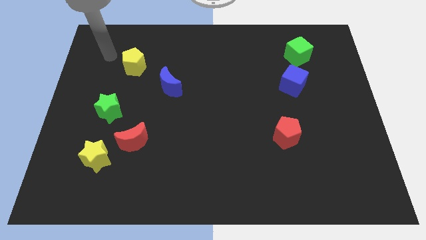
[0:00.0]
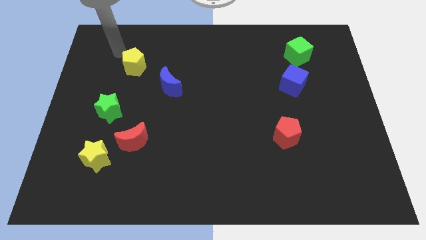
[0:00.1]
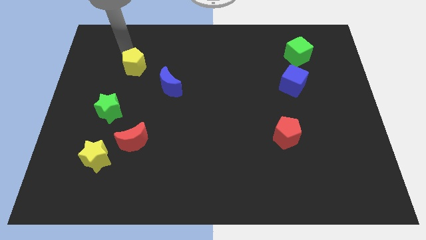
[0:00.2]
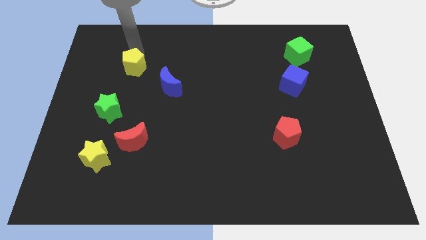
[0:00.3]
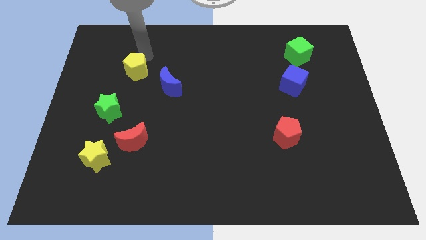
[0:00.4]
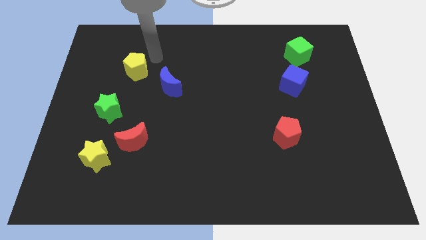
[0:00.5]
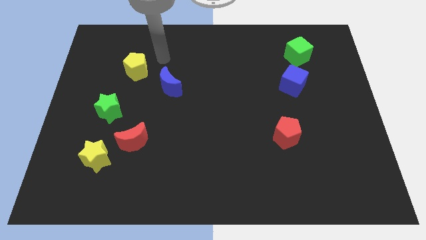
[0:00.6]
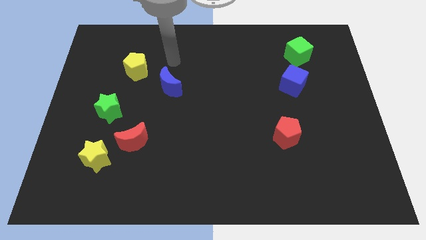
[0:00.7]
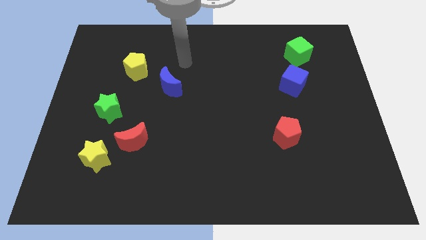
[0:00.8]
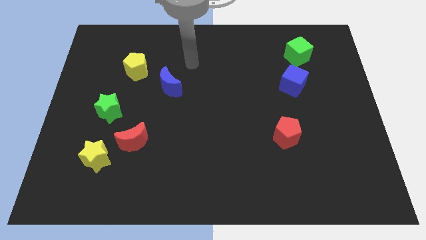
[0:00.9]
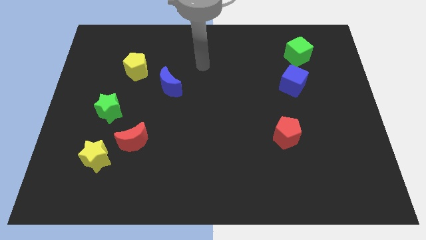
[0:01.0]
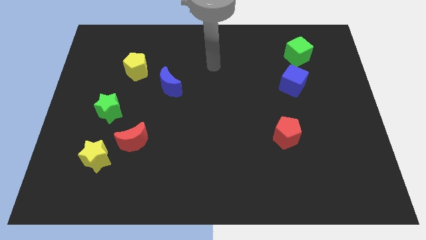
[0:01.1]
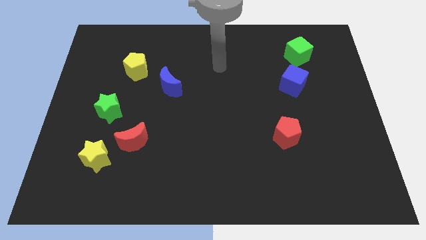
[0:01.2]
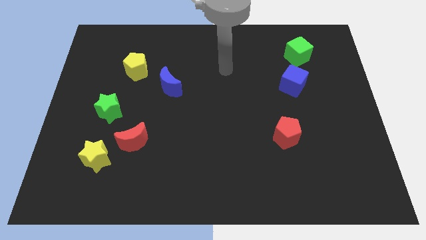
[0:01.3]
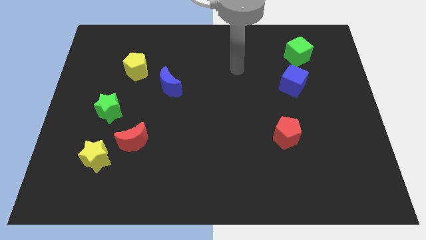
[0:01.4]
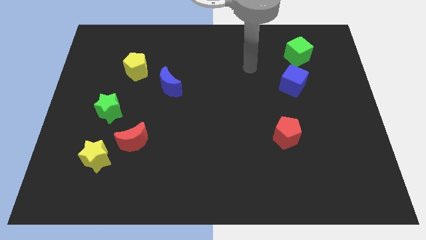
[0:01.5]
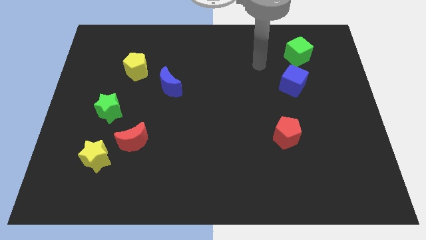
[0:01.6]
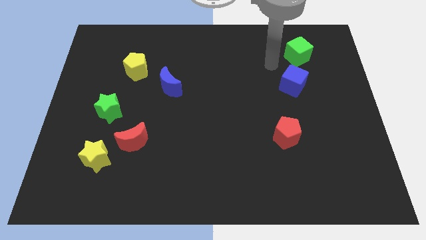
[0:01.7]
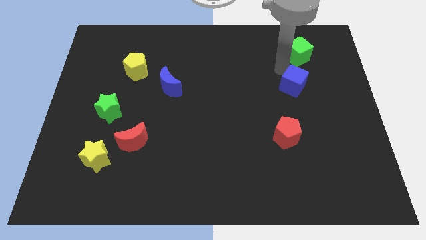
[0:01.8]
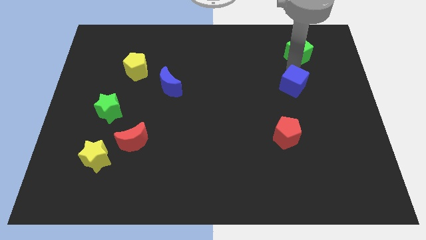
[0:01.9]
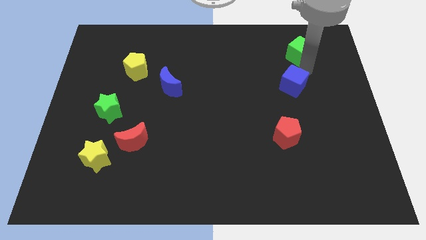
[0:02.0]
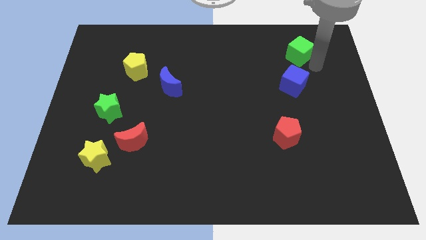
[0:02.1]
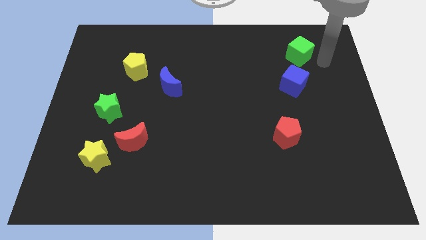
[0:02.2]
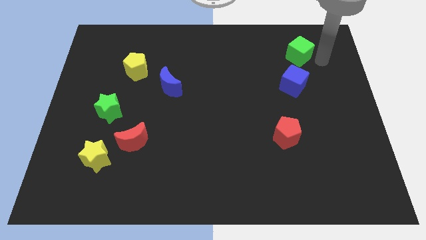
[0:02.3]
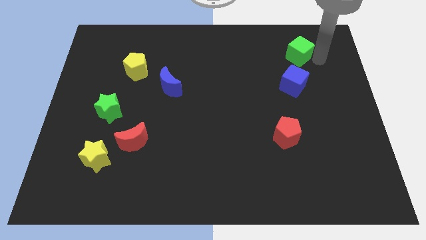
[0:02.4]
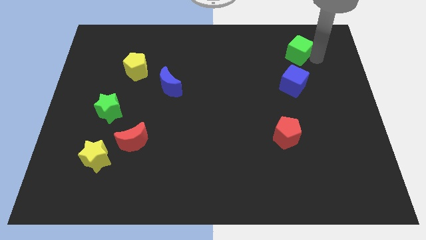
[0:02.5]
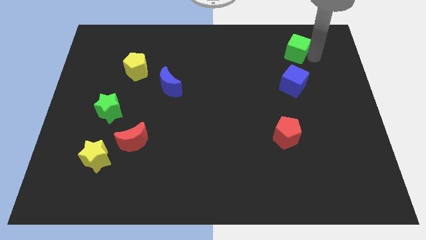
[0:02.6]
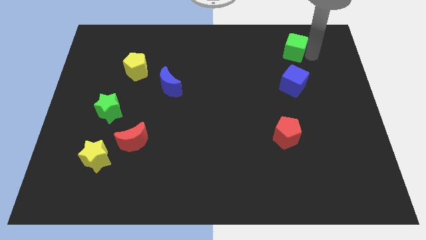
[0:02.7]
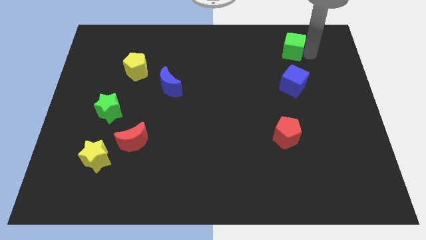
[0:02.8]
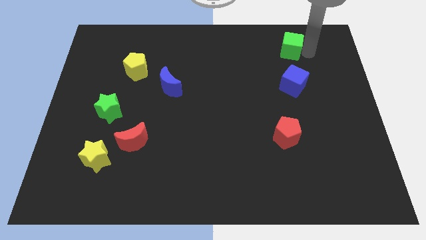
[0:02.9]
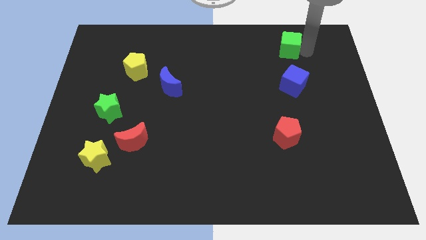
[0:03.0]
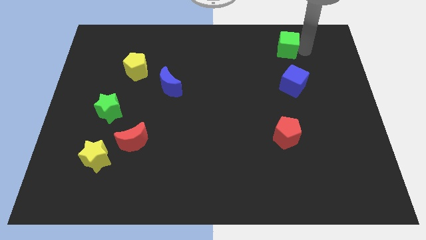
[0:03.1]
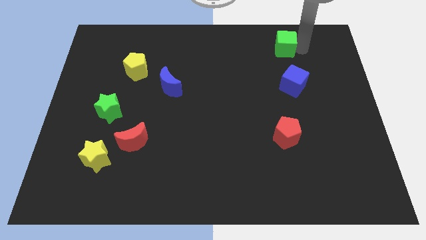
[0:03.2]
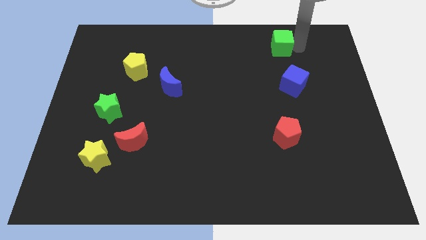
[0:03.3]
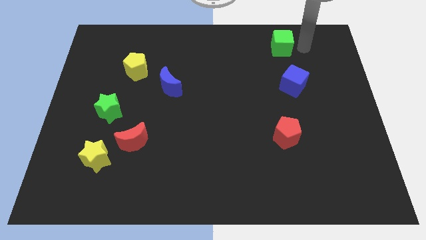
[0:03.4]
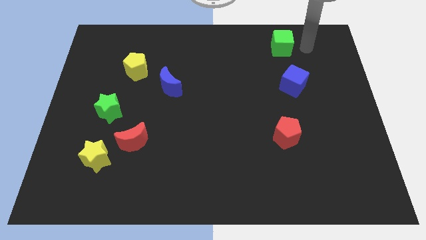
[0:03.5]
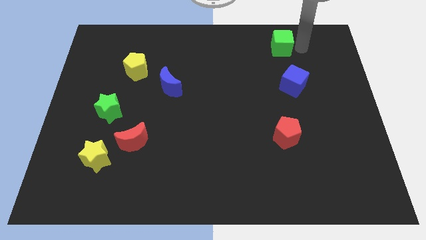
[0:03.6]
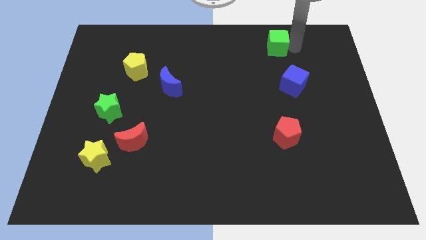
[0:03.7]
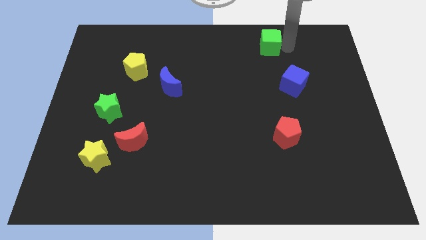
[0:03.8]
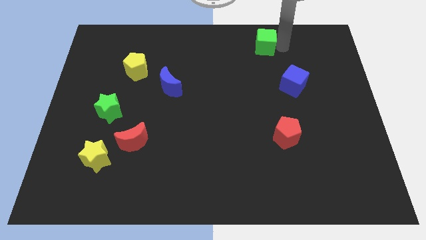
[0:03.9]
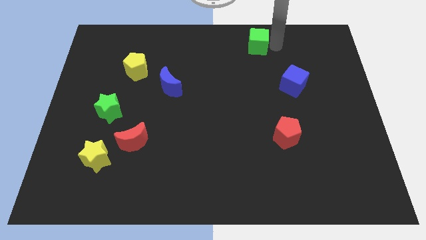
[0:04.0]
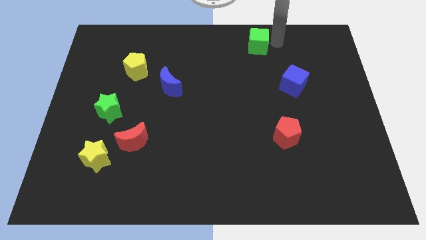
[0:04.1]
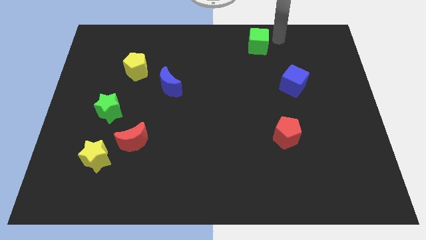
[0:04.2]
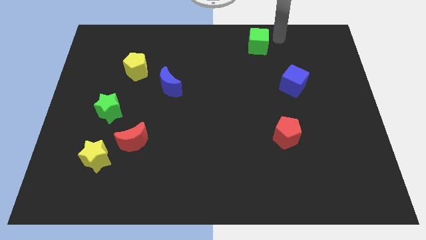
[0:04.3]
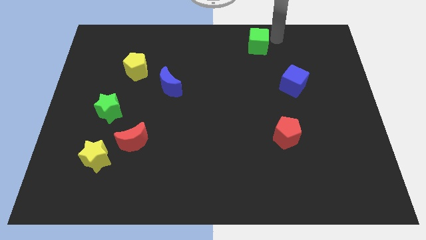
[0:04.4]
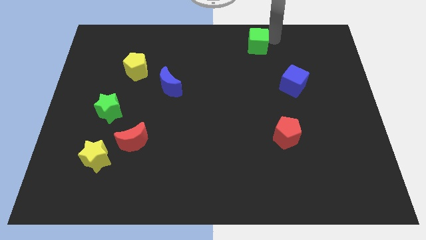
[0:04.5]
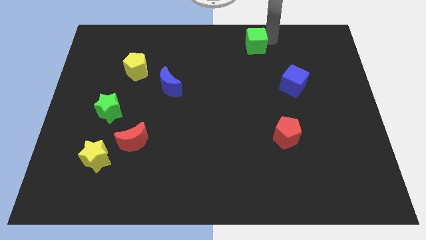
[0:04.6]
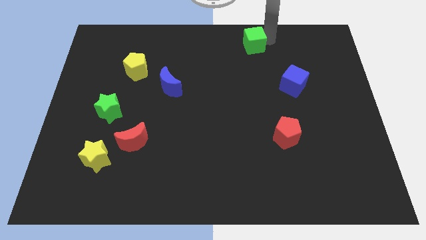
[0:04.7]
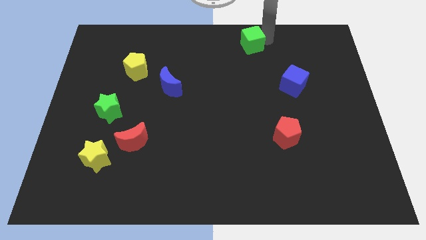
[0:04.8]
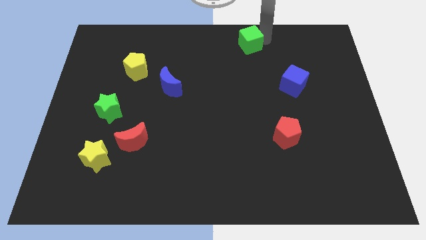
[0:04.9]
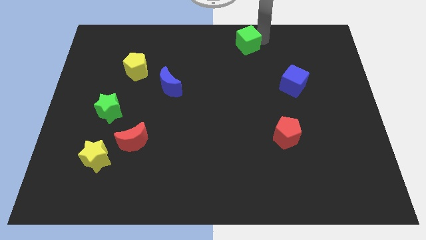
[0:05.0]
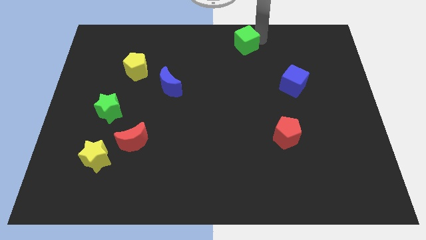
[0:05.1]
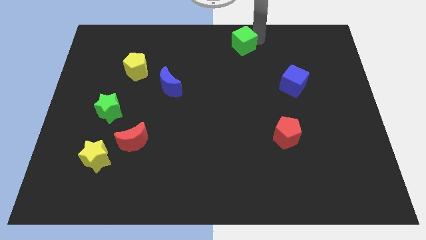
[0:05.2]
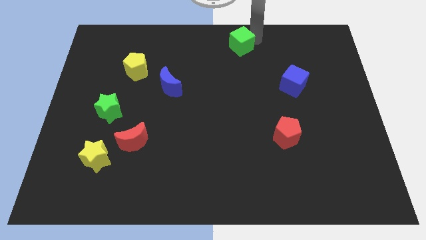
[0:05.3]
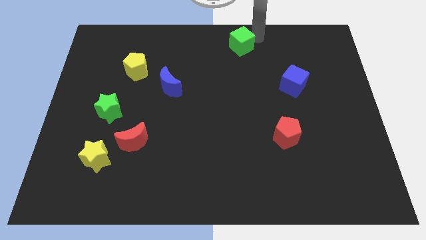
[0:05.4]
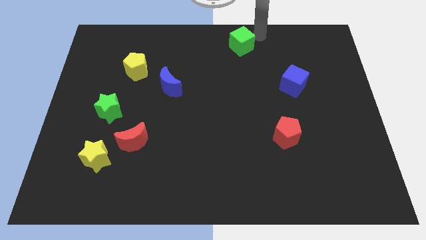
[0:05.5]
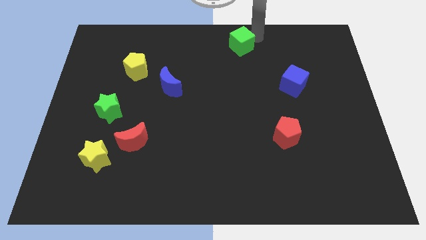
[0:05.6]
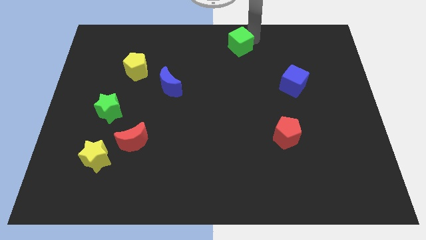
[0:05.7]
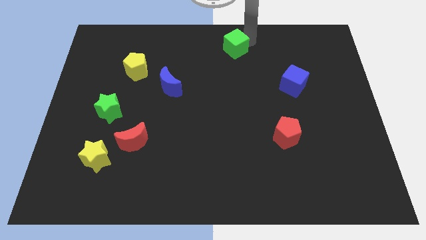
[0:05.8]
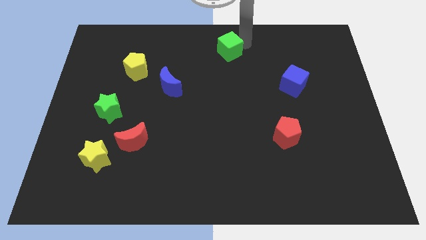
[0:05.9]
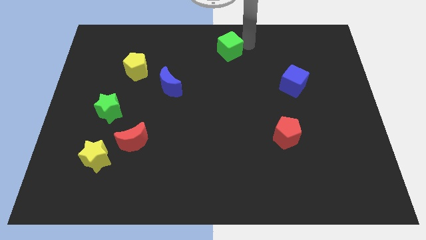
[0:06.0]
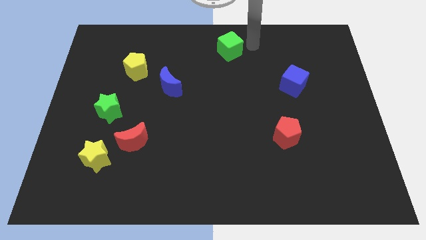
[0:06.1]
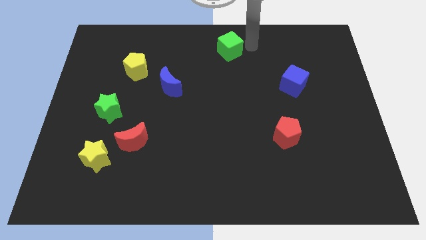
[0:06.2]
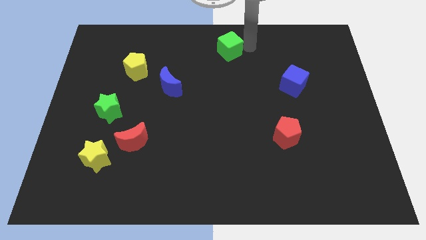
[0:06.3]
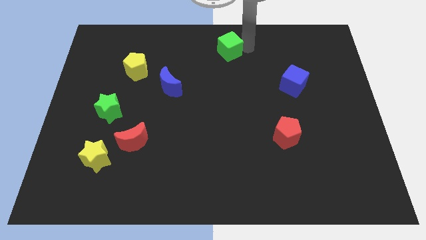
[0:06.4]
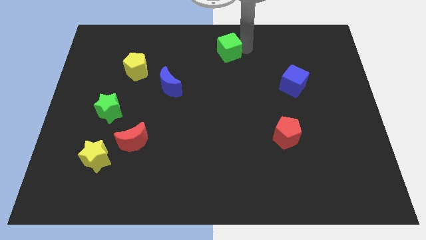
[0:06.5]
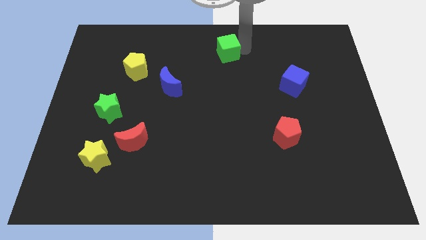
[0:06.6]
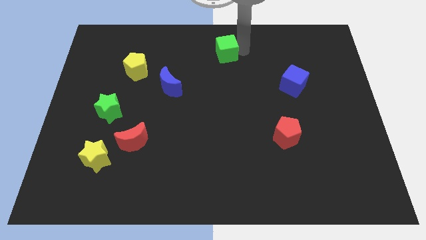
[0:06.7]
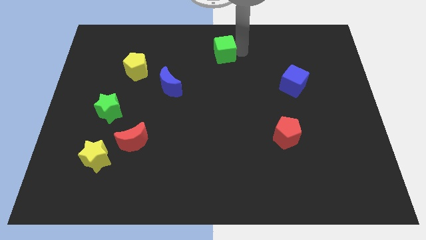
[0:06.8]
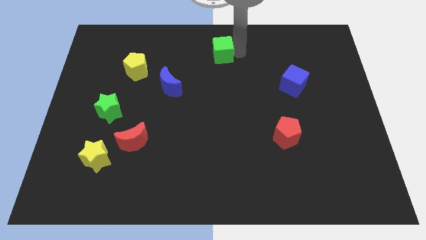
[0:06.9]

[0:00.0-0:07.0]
push the green cube to the left

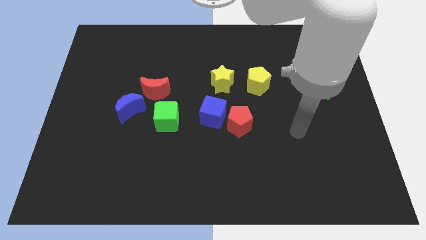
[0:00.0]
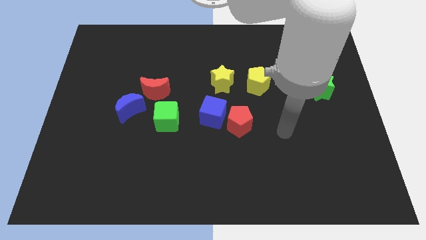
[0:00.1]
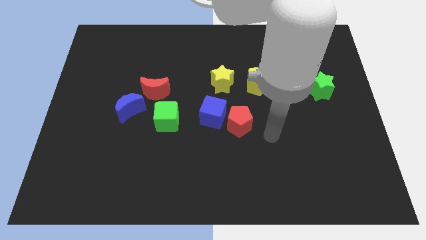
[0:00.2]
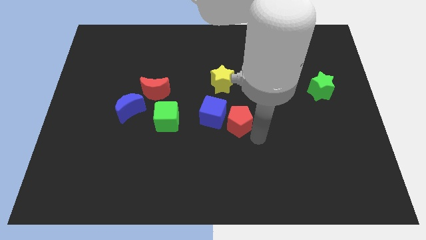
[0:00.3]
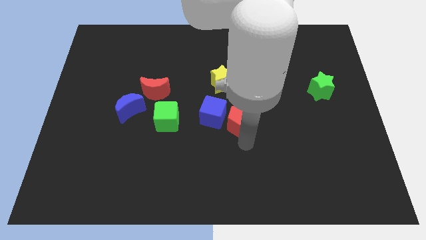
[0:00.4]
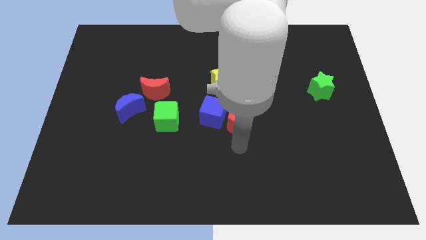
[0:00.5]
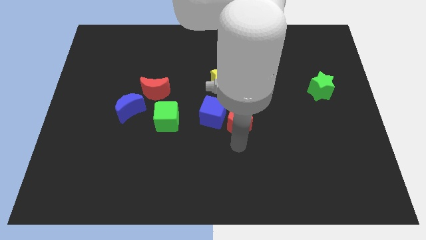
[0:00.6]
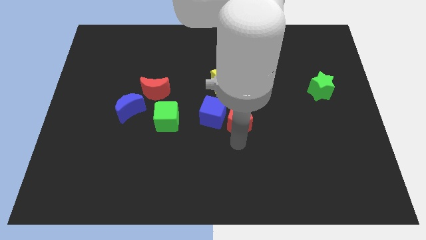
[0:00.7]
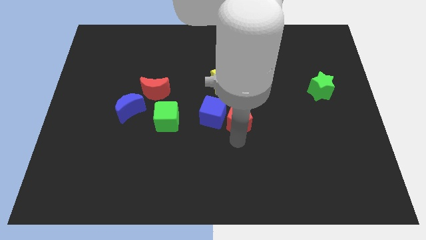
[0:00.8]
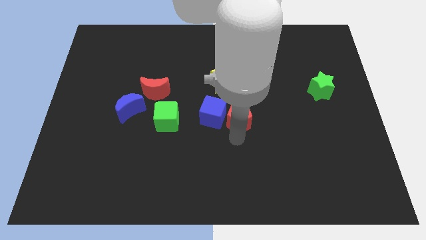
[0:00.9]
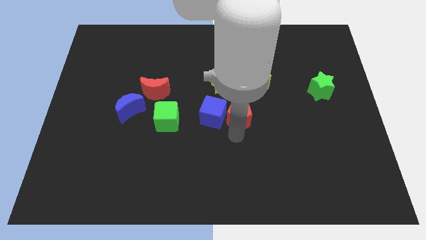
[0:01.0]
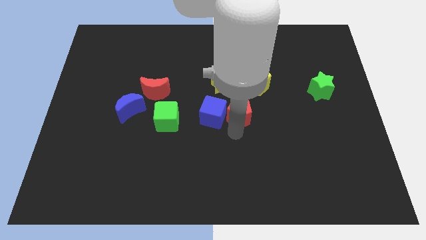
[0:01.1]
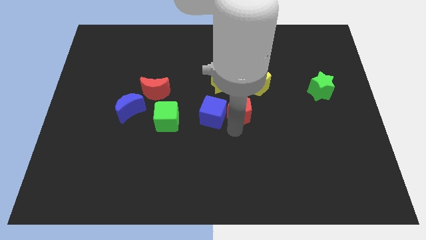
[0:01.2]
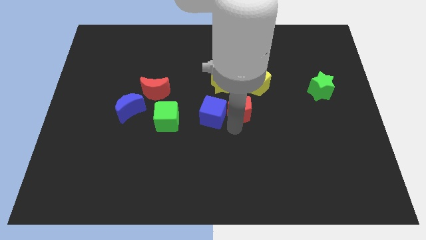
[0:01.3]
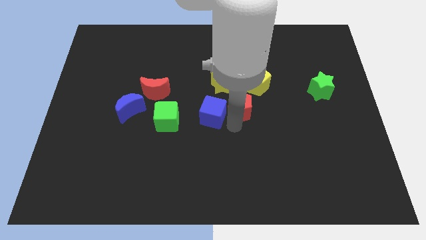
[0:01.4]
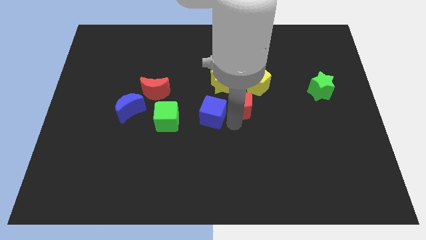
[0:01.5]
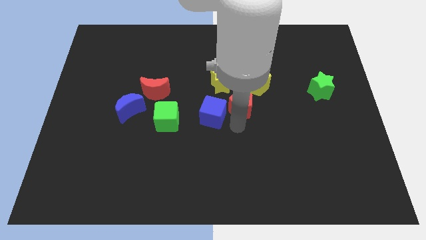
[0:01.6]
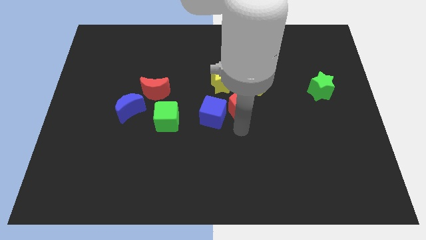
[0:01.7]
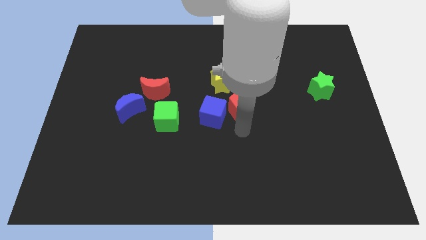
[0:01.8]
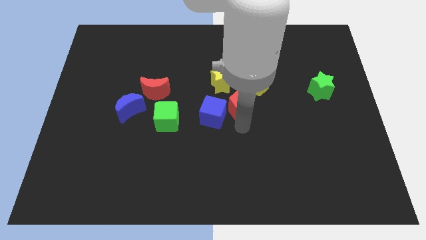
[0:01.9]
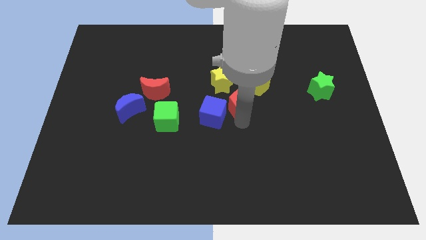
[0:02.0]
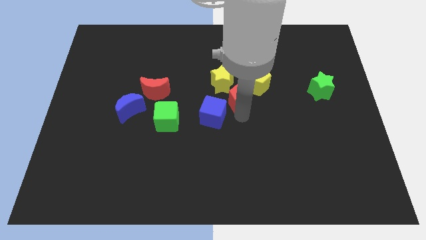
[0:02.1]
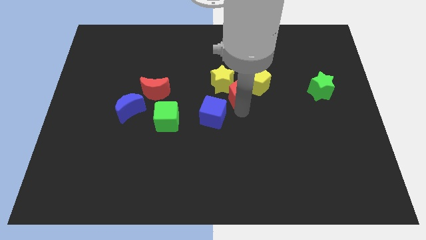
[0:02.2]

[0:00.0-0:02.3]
push the red pentagon a little up
